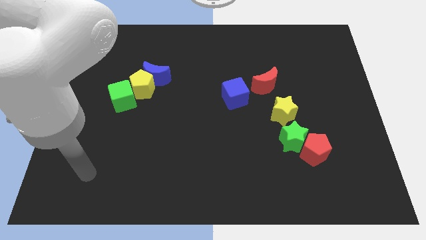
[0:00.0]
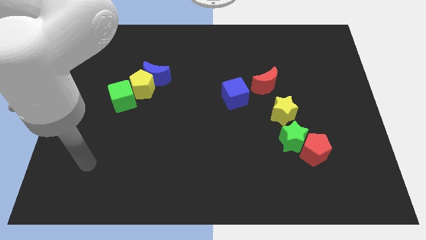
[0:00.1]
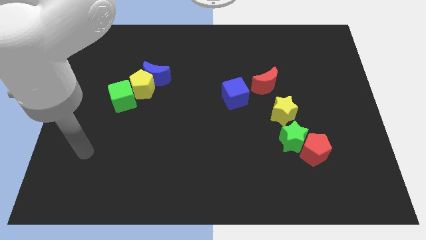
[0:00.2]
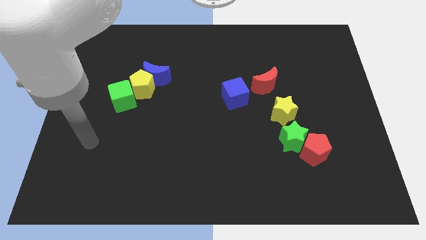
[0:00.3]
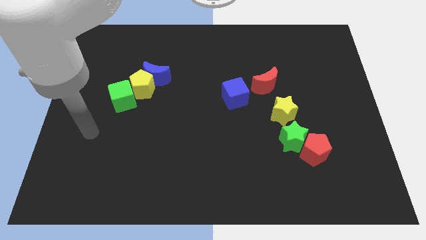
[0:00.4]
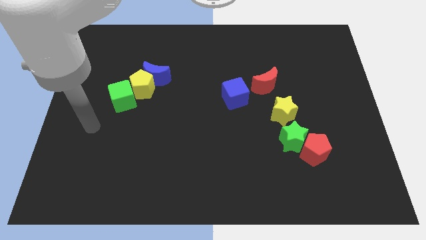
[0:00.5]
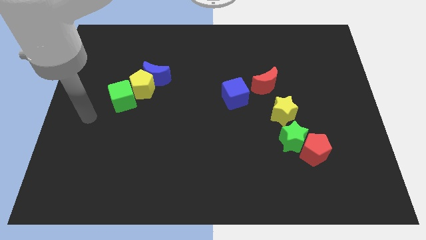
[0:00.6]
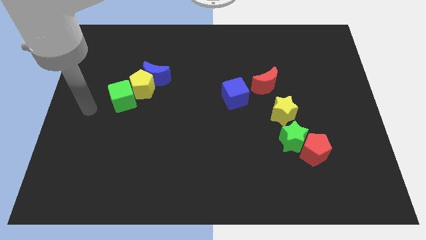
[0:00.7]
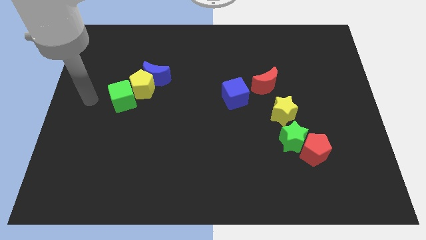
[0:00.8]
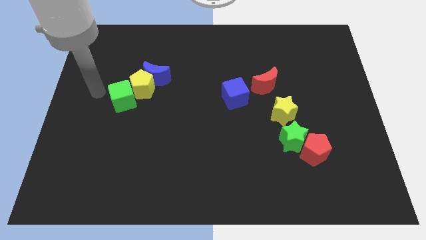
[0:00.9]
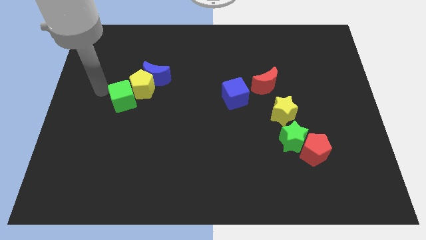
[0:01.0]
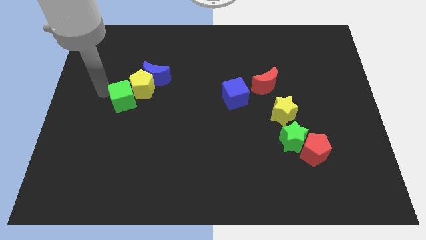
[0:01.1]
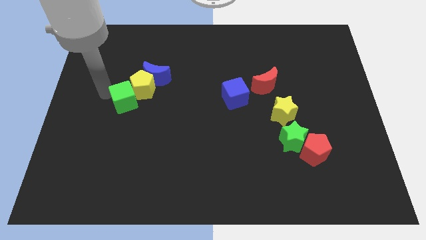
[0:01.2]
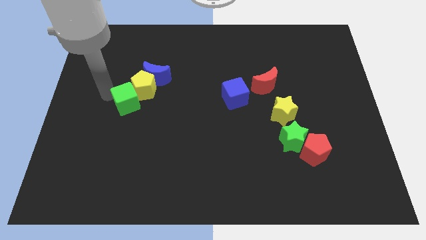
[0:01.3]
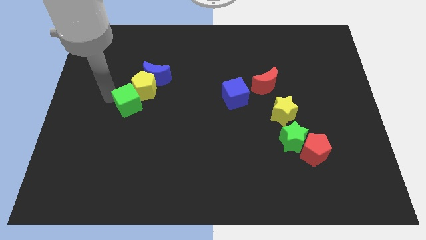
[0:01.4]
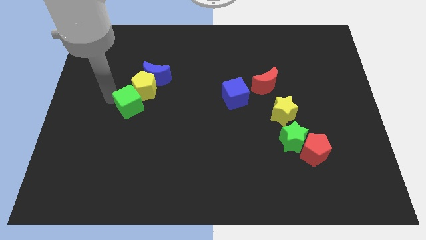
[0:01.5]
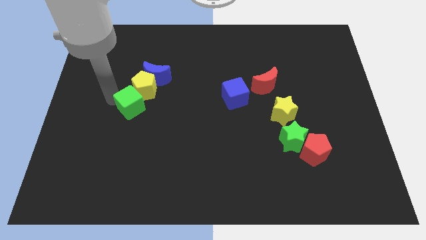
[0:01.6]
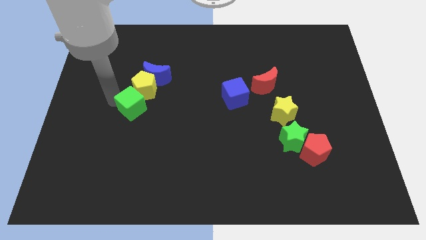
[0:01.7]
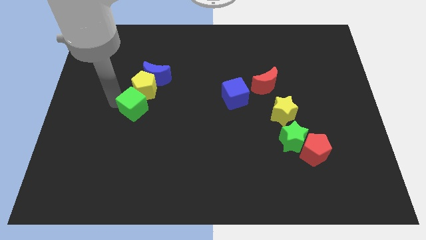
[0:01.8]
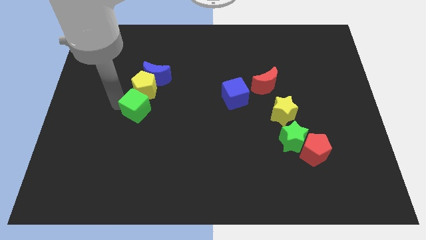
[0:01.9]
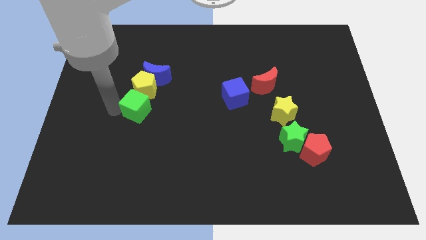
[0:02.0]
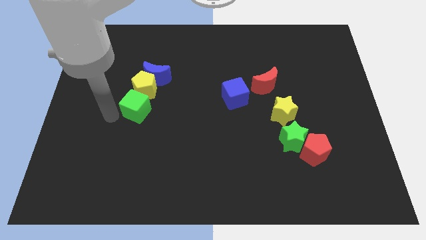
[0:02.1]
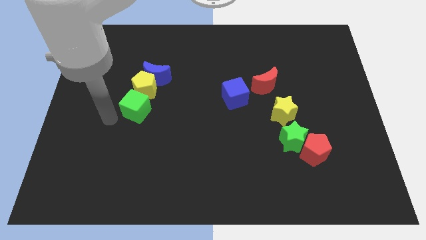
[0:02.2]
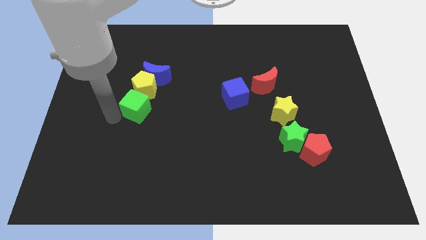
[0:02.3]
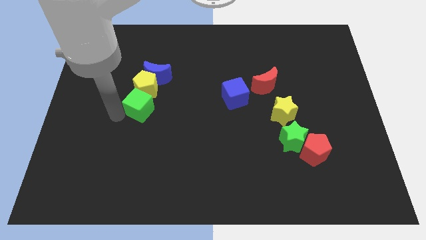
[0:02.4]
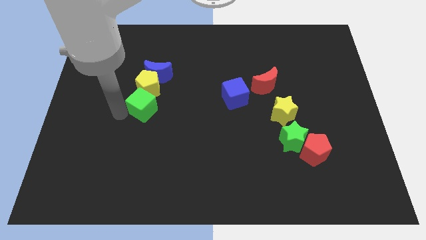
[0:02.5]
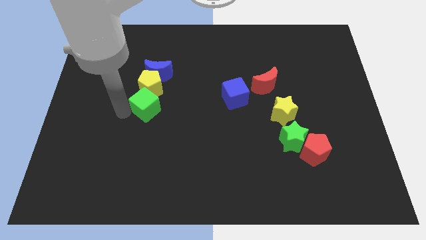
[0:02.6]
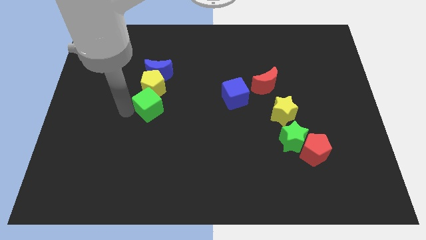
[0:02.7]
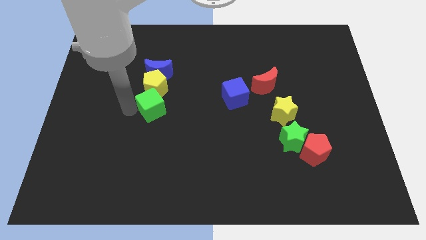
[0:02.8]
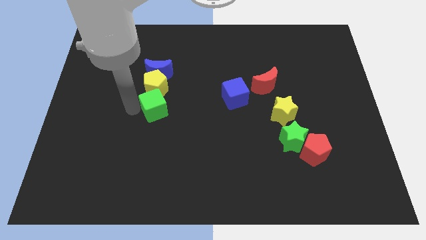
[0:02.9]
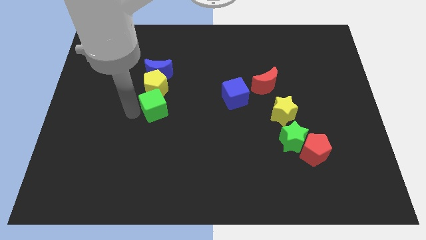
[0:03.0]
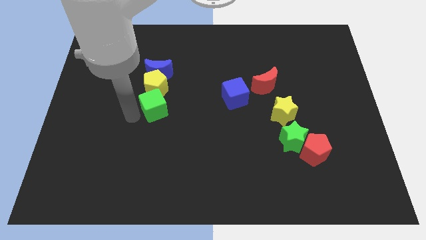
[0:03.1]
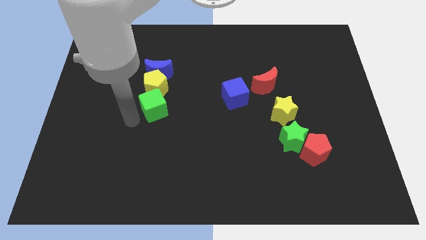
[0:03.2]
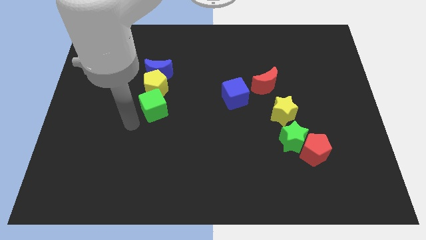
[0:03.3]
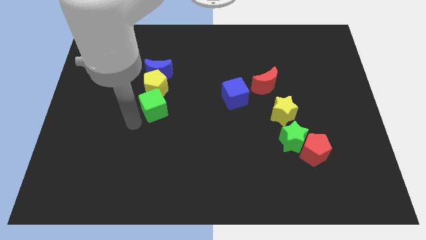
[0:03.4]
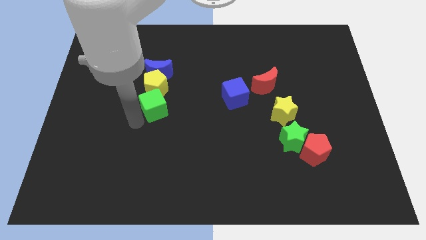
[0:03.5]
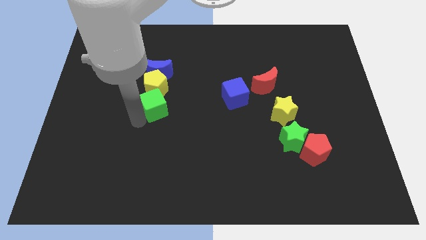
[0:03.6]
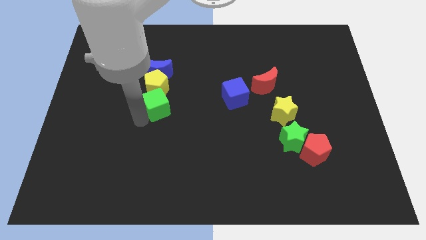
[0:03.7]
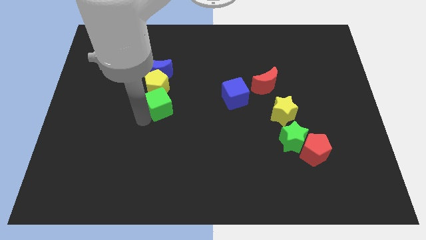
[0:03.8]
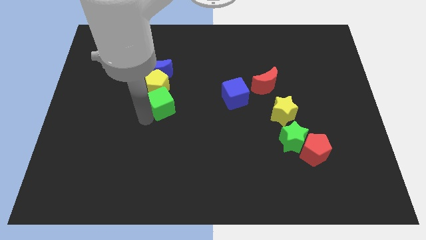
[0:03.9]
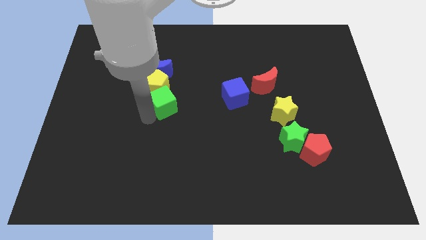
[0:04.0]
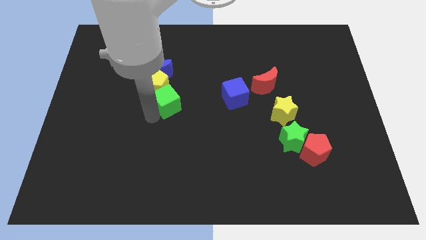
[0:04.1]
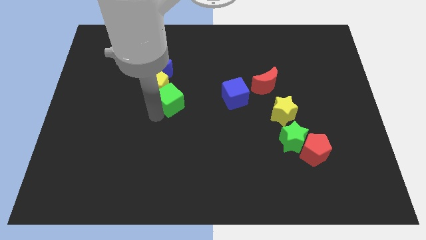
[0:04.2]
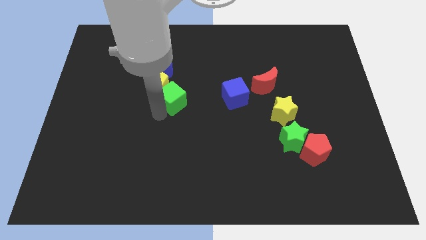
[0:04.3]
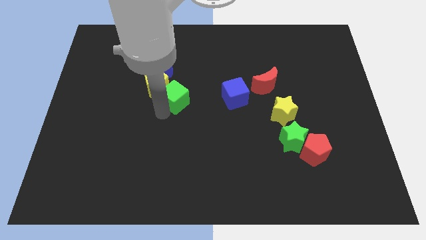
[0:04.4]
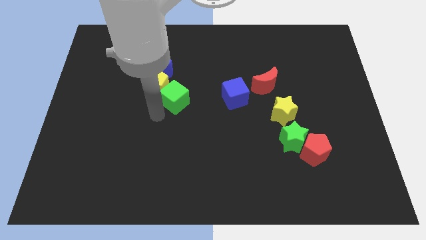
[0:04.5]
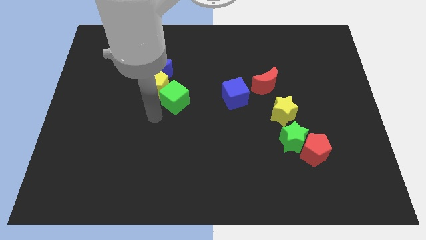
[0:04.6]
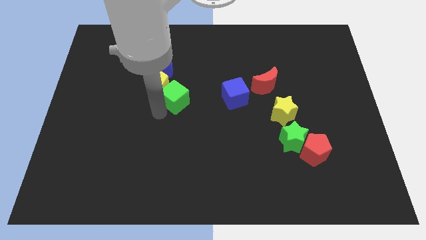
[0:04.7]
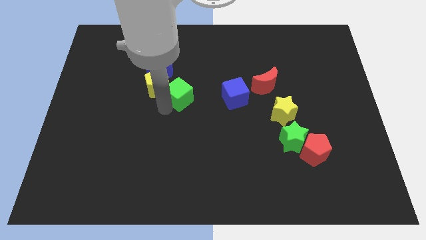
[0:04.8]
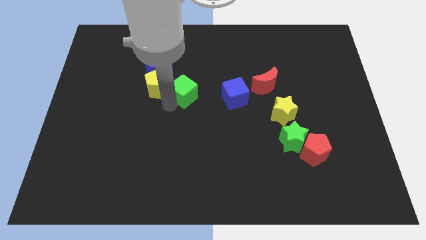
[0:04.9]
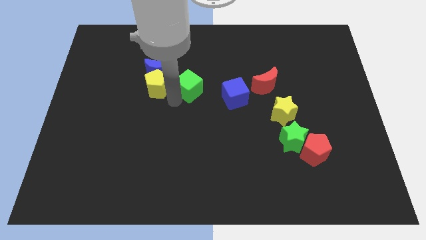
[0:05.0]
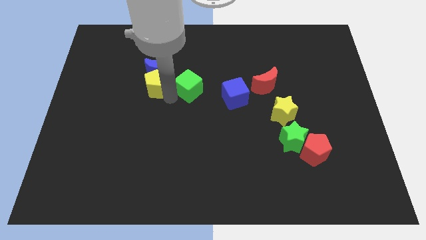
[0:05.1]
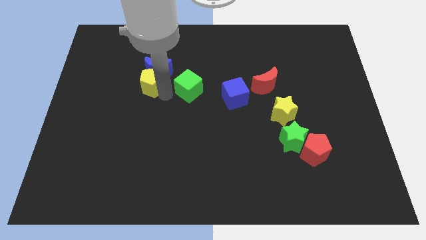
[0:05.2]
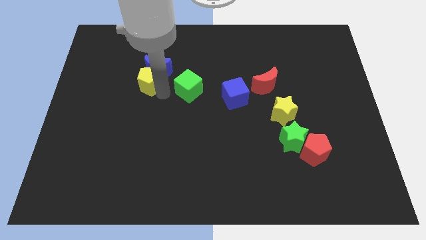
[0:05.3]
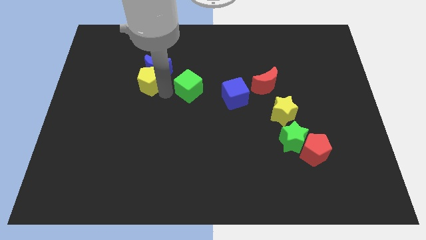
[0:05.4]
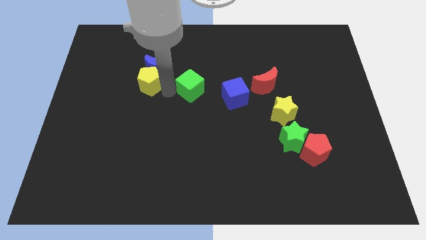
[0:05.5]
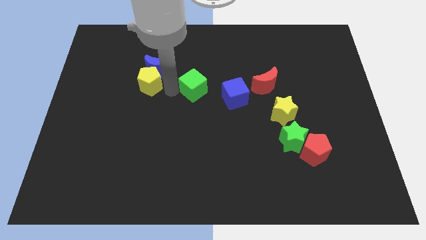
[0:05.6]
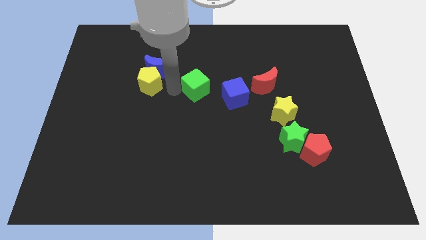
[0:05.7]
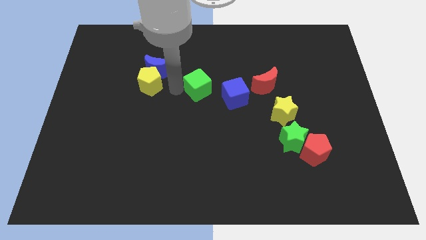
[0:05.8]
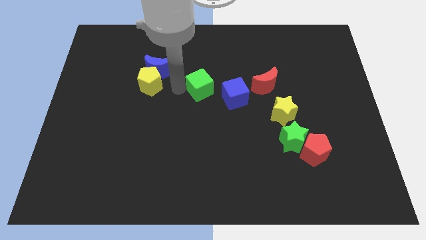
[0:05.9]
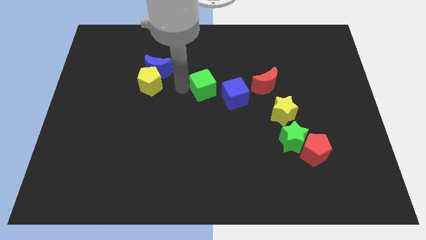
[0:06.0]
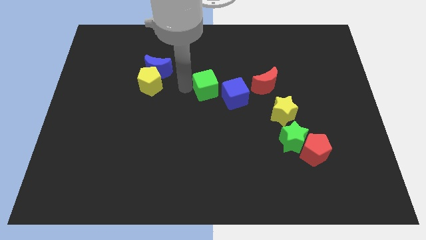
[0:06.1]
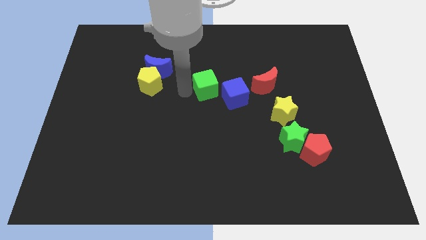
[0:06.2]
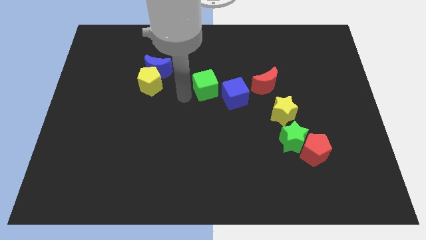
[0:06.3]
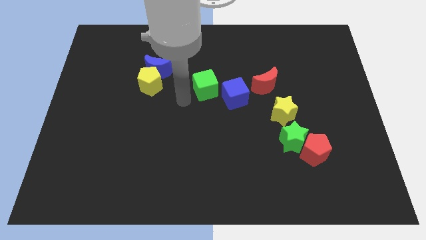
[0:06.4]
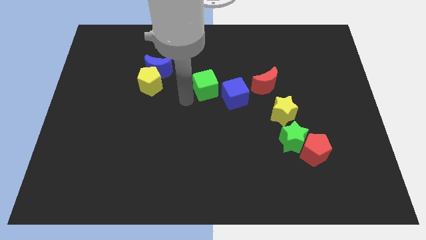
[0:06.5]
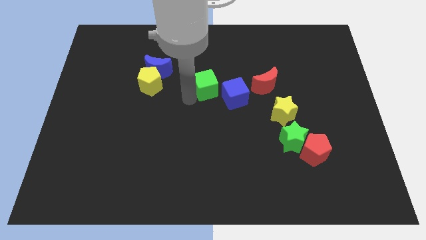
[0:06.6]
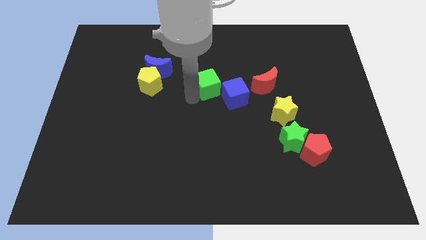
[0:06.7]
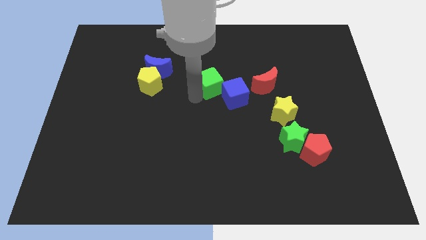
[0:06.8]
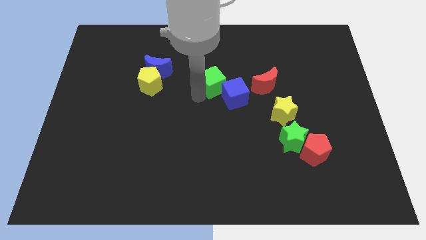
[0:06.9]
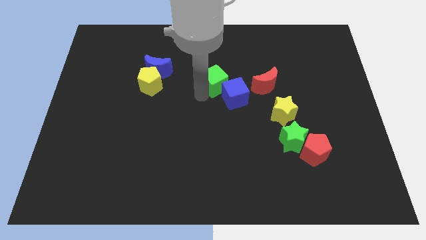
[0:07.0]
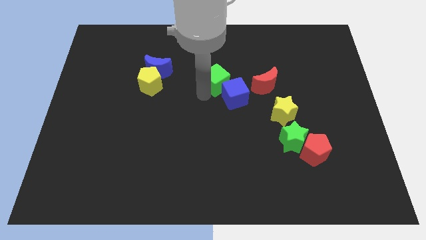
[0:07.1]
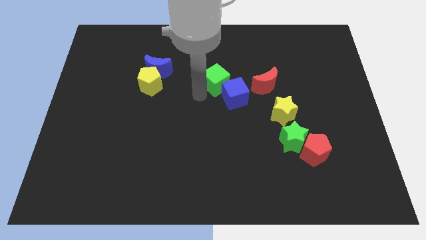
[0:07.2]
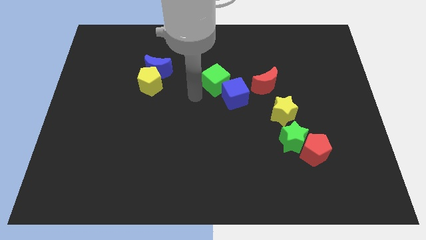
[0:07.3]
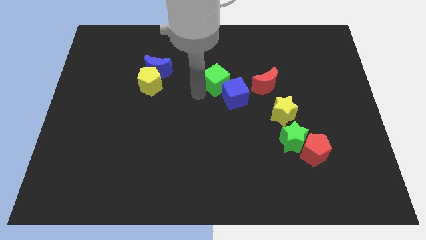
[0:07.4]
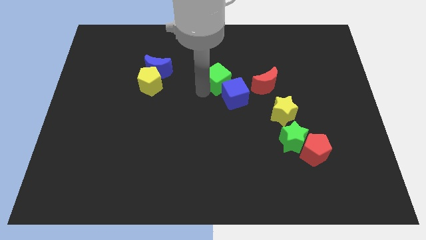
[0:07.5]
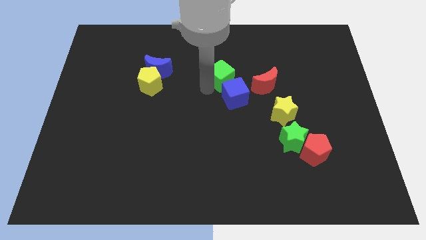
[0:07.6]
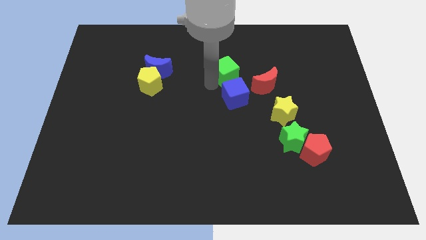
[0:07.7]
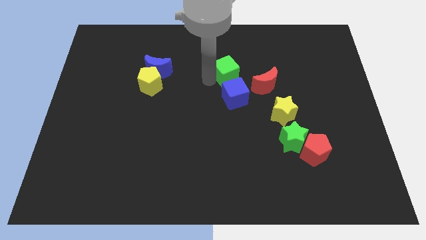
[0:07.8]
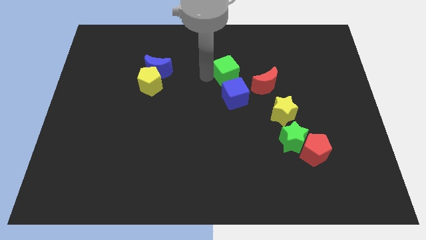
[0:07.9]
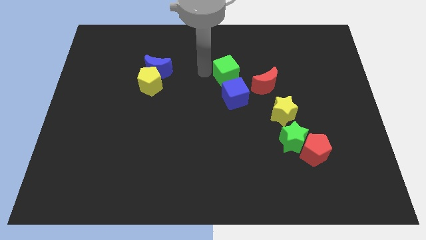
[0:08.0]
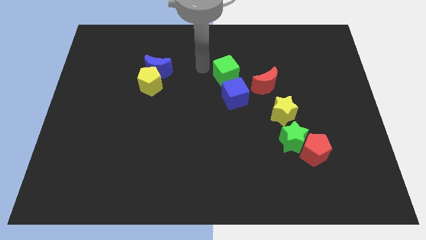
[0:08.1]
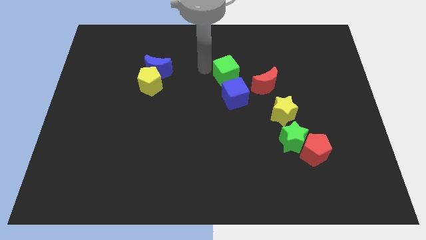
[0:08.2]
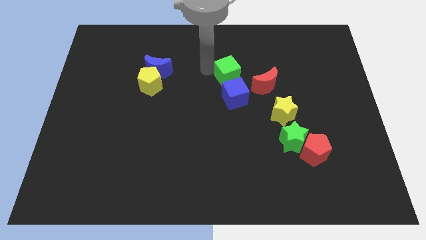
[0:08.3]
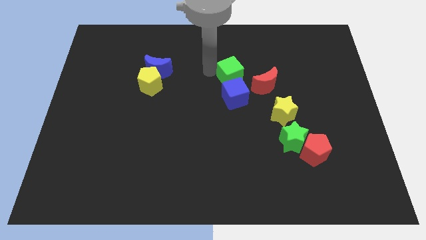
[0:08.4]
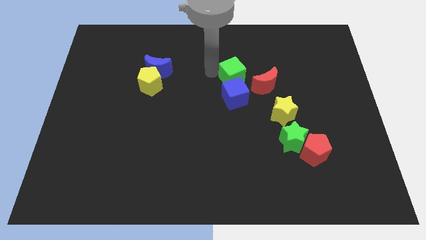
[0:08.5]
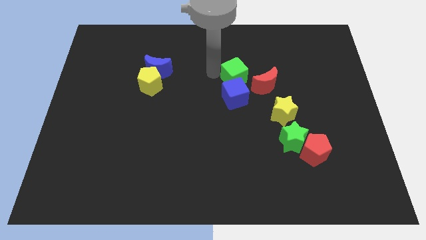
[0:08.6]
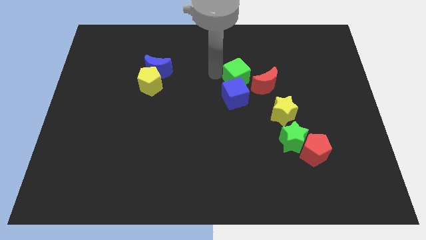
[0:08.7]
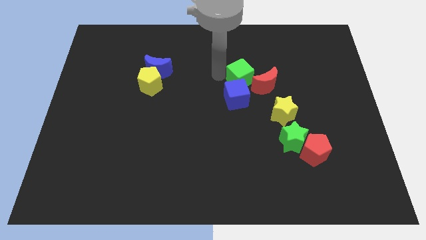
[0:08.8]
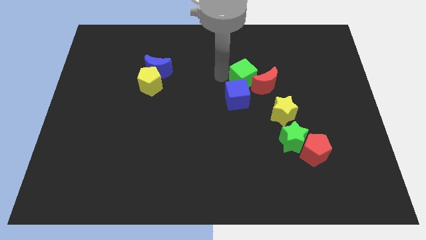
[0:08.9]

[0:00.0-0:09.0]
move the green cube towards the red moon
